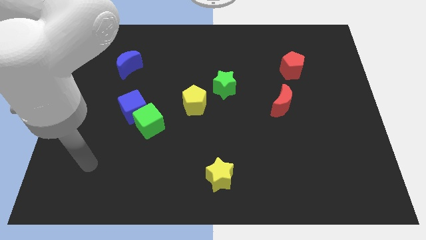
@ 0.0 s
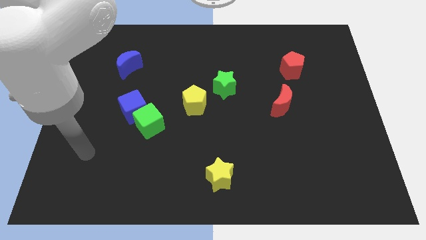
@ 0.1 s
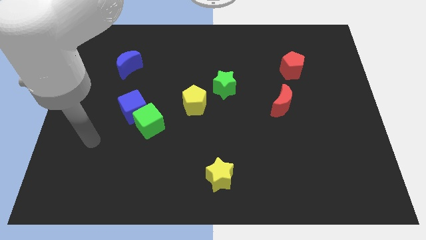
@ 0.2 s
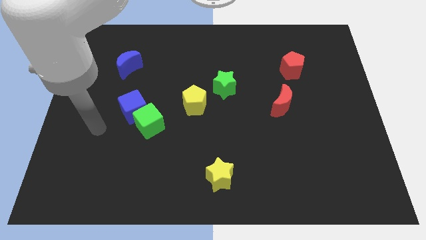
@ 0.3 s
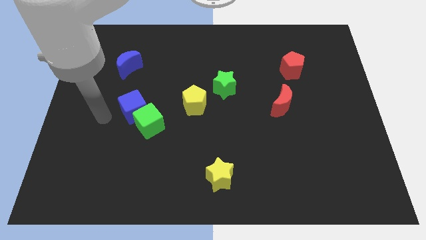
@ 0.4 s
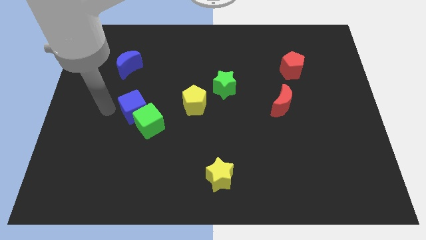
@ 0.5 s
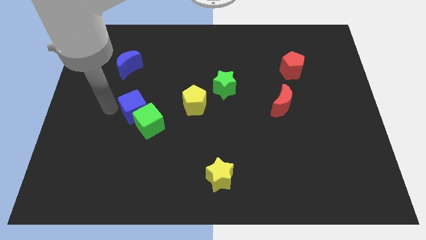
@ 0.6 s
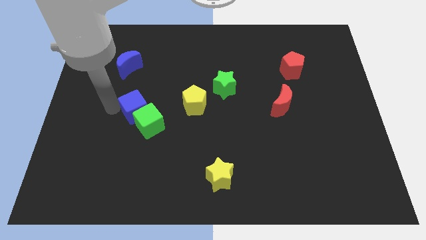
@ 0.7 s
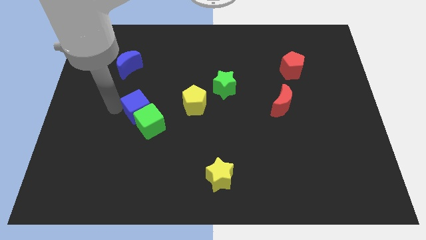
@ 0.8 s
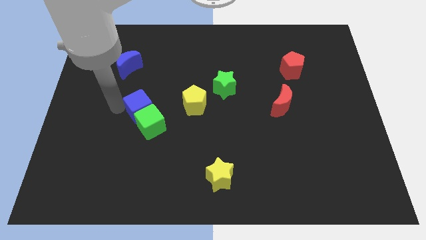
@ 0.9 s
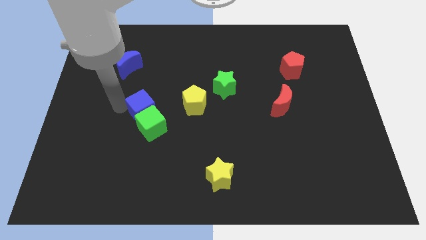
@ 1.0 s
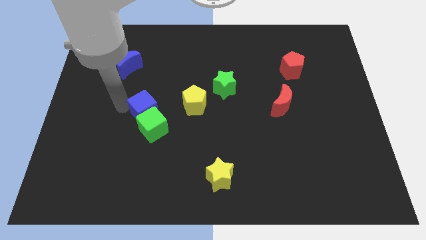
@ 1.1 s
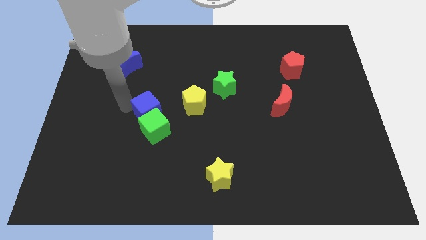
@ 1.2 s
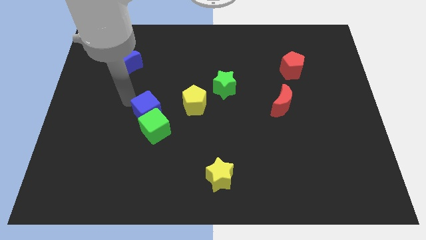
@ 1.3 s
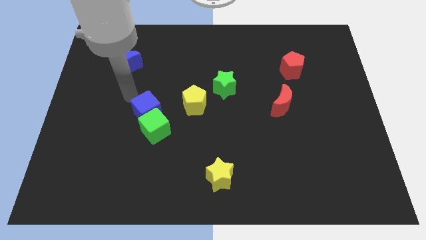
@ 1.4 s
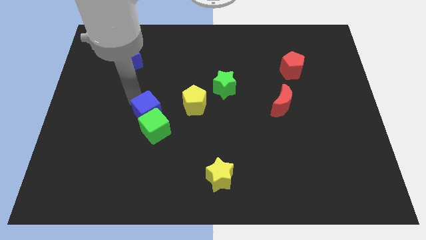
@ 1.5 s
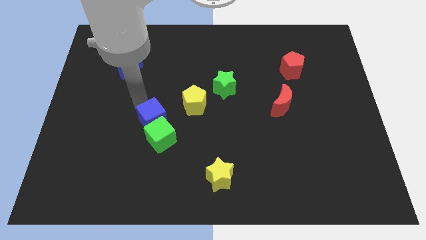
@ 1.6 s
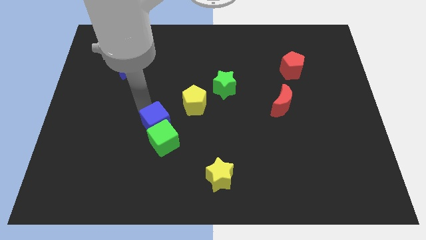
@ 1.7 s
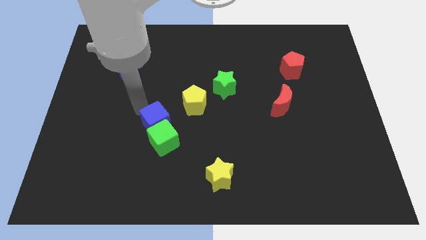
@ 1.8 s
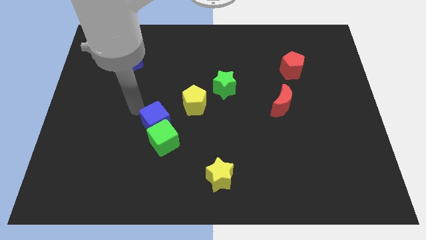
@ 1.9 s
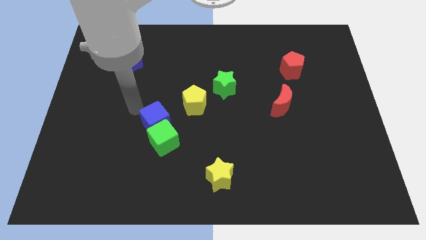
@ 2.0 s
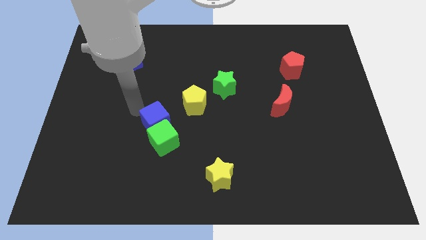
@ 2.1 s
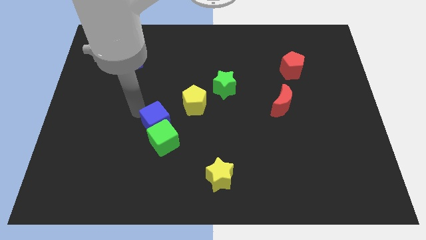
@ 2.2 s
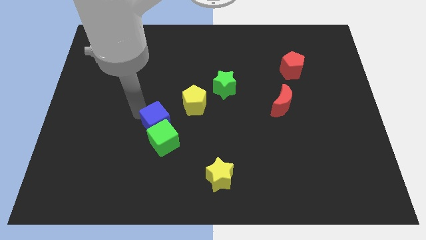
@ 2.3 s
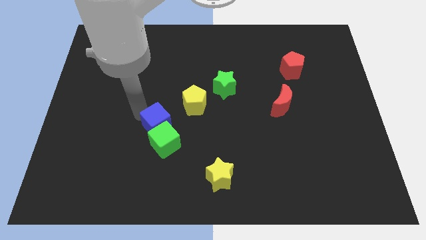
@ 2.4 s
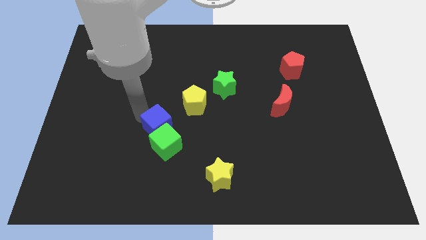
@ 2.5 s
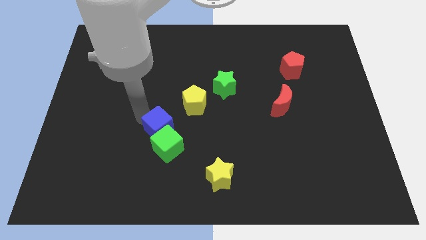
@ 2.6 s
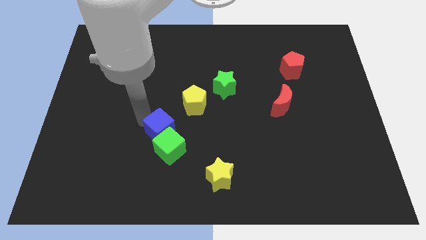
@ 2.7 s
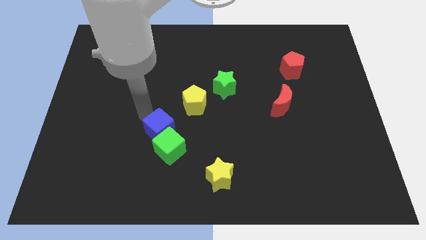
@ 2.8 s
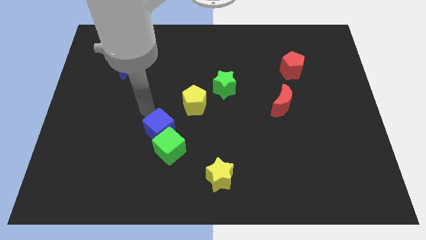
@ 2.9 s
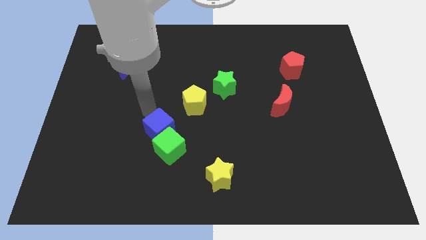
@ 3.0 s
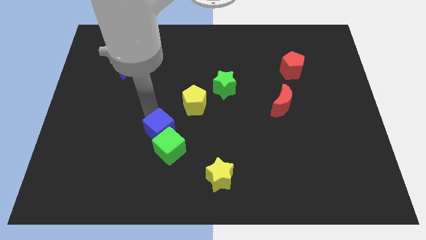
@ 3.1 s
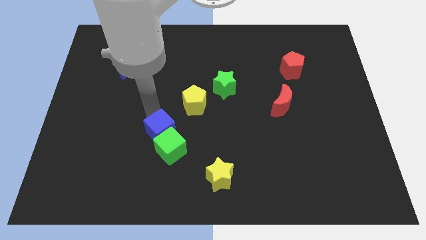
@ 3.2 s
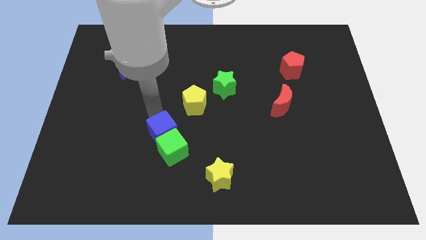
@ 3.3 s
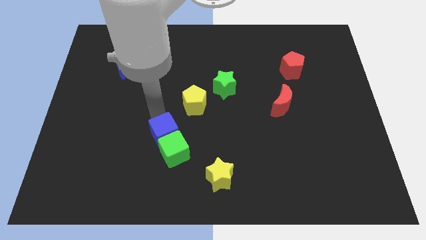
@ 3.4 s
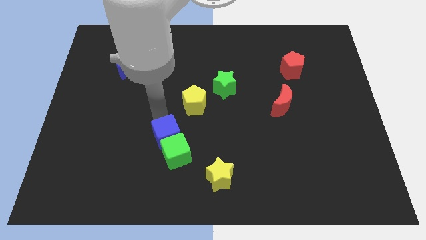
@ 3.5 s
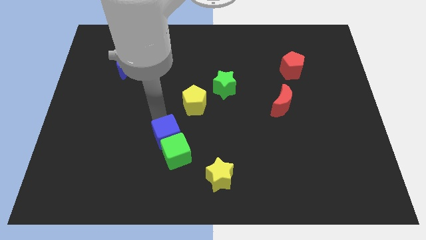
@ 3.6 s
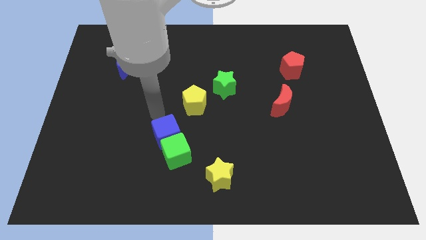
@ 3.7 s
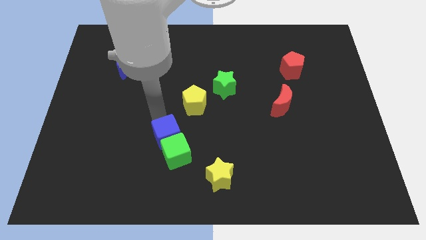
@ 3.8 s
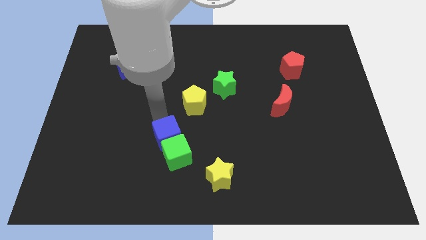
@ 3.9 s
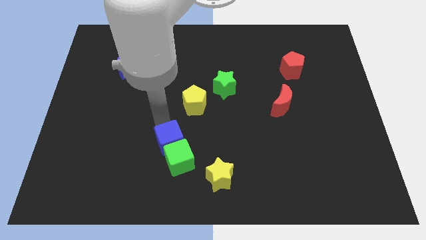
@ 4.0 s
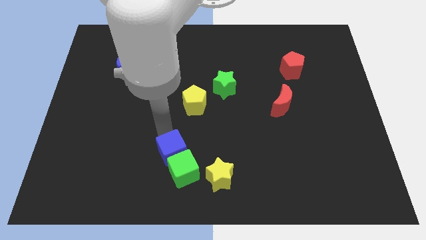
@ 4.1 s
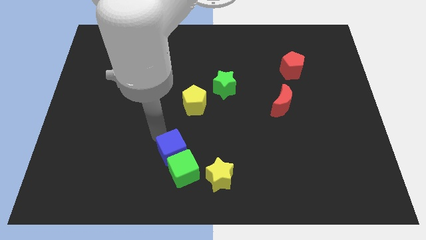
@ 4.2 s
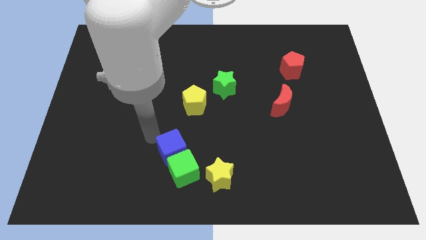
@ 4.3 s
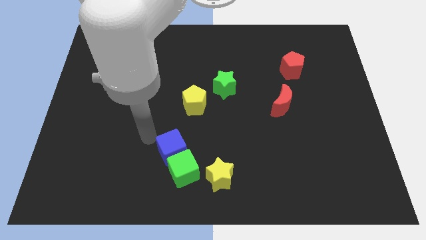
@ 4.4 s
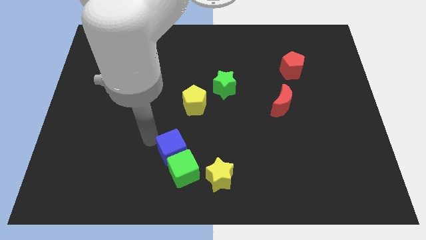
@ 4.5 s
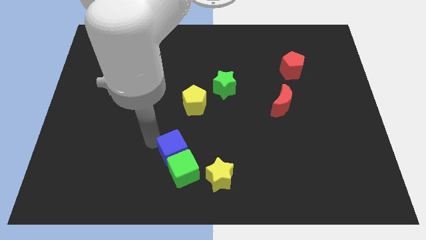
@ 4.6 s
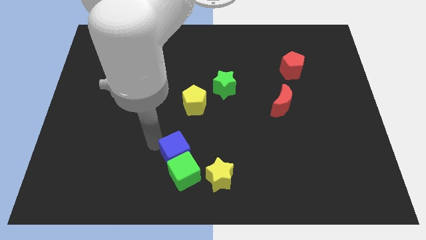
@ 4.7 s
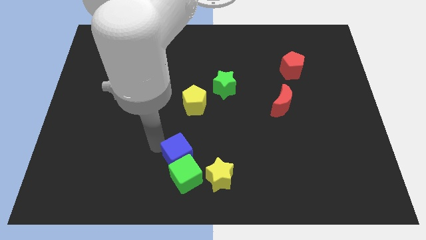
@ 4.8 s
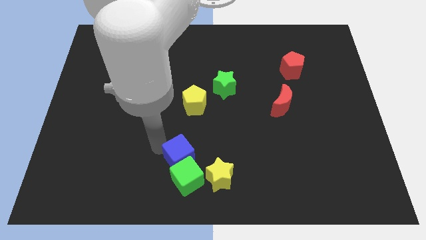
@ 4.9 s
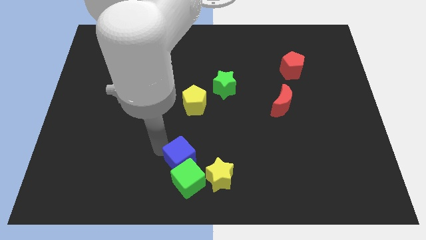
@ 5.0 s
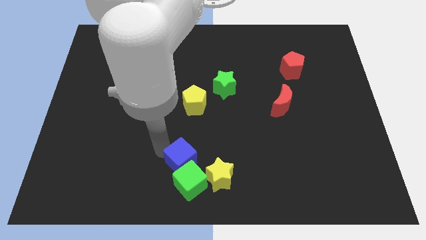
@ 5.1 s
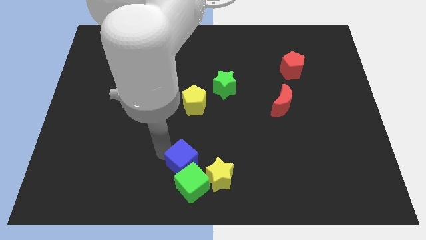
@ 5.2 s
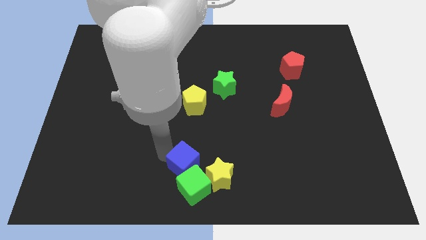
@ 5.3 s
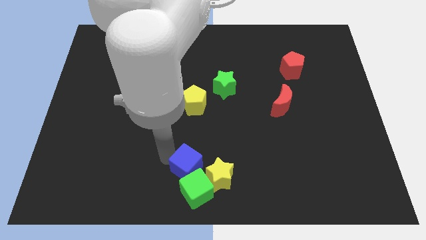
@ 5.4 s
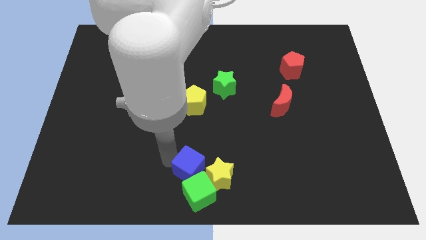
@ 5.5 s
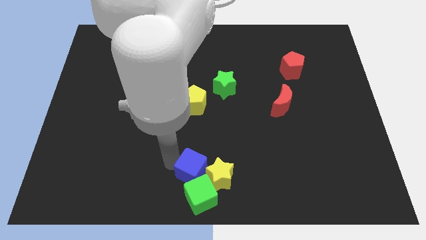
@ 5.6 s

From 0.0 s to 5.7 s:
move the blue cube next to the yellow star

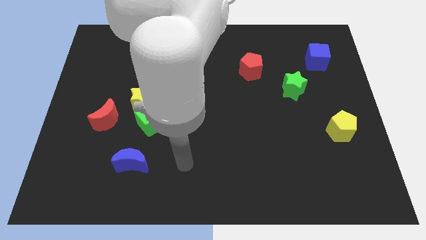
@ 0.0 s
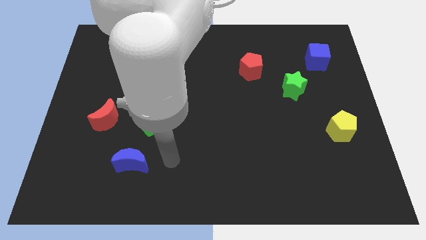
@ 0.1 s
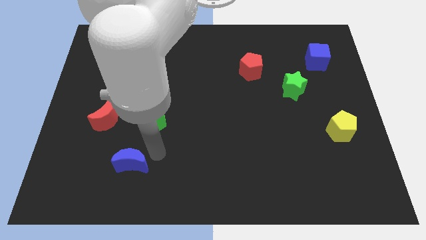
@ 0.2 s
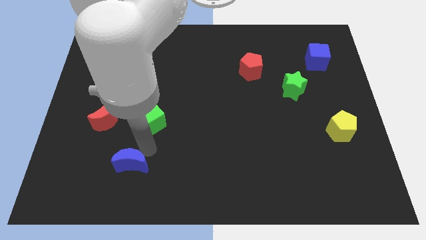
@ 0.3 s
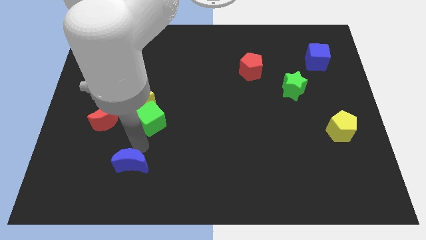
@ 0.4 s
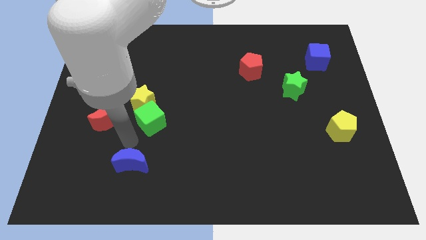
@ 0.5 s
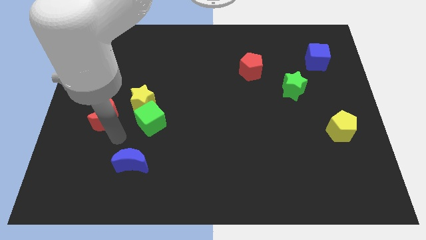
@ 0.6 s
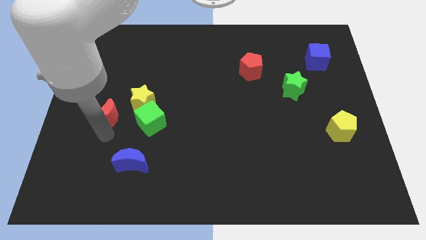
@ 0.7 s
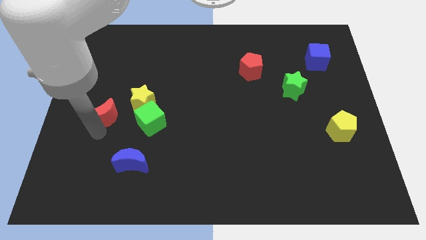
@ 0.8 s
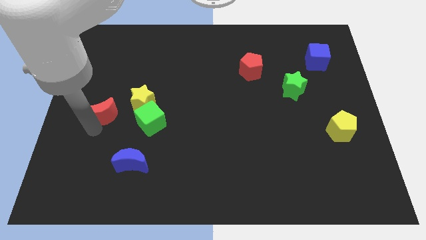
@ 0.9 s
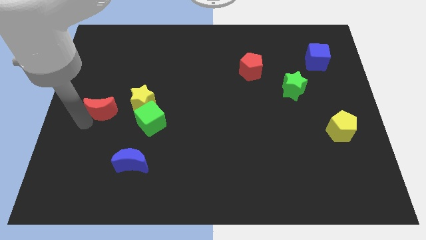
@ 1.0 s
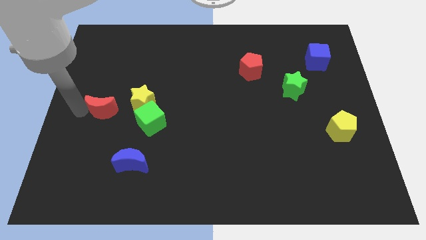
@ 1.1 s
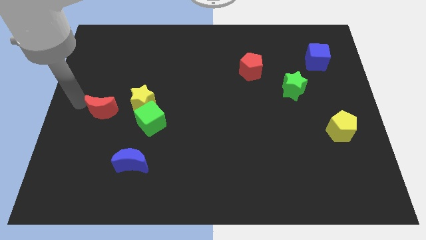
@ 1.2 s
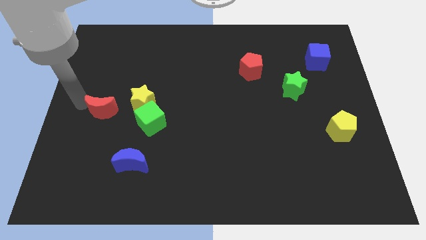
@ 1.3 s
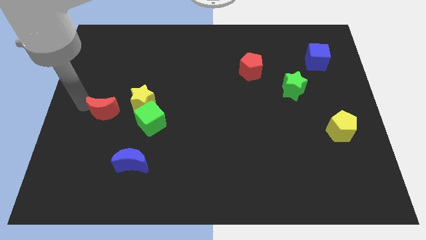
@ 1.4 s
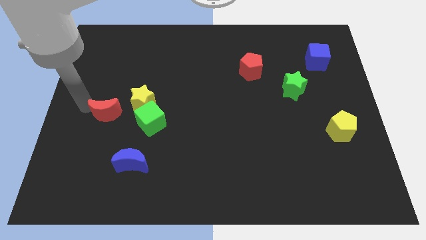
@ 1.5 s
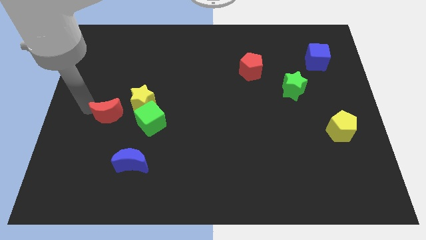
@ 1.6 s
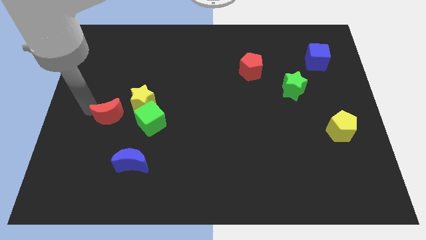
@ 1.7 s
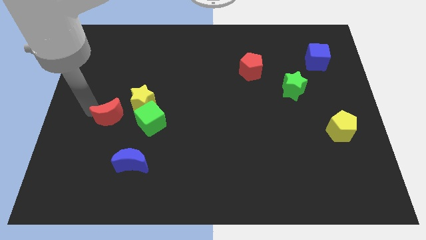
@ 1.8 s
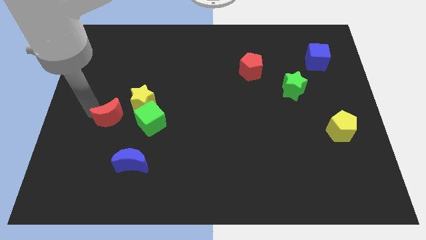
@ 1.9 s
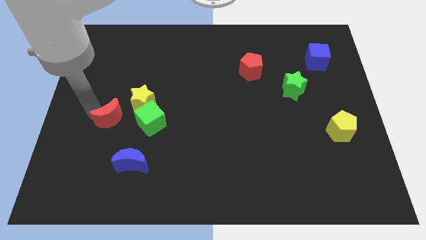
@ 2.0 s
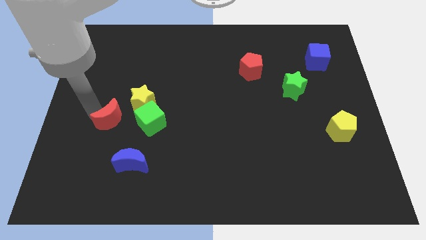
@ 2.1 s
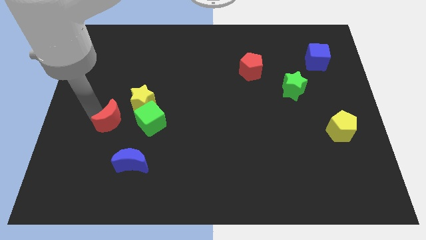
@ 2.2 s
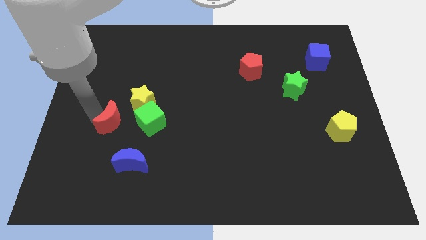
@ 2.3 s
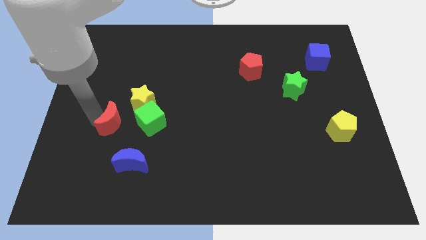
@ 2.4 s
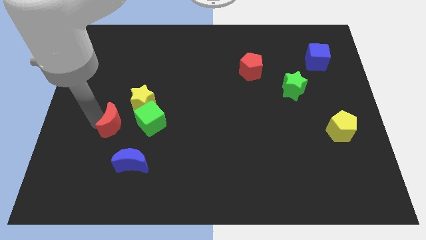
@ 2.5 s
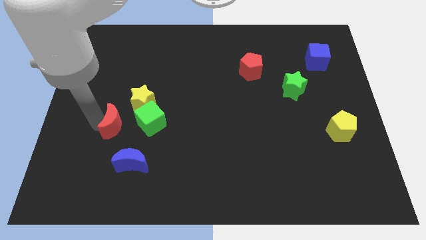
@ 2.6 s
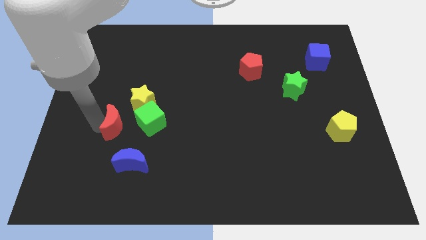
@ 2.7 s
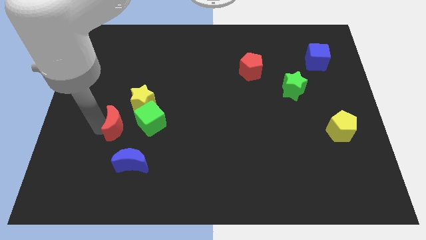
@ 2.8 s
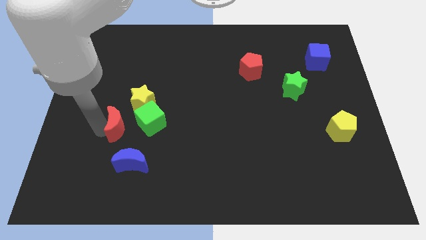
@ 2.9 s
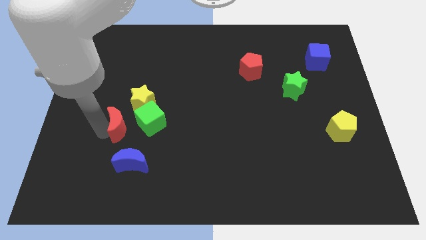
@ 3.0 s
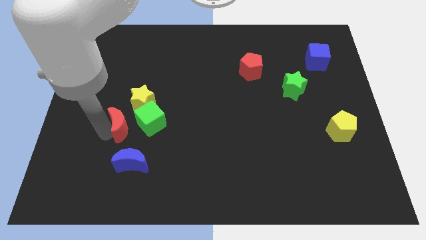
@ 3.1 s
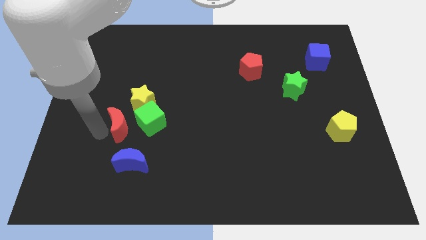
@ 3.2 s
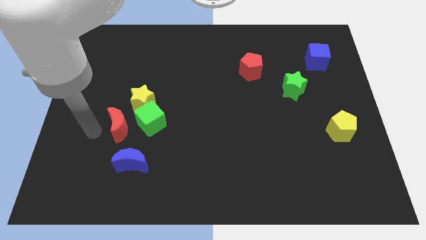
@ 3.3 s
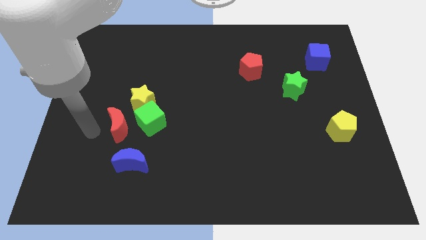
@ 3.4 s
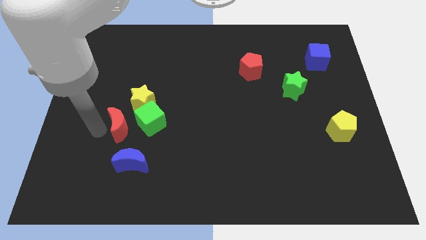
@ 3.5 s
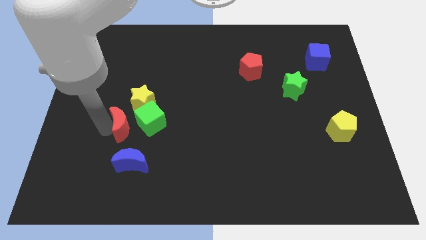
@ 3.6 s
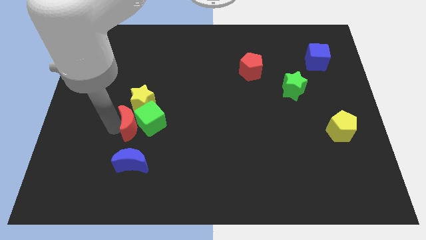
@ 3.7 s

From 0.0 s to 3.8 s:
push the red moon to the green cube
